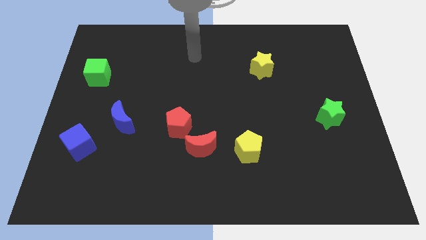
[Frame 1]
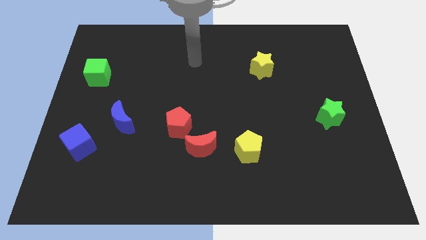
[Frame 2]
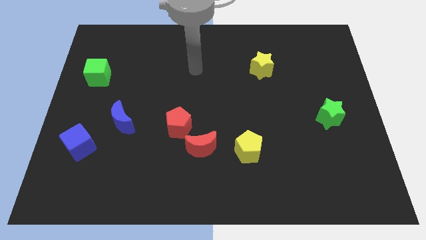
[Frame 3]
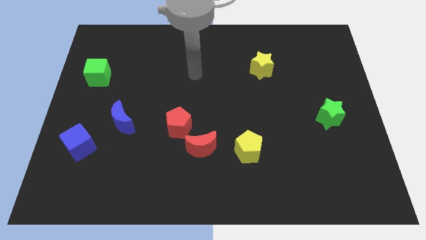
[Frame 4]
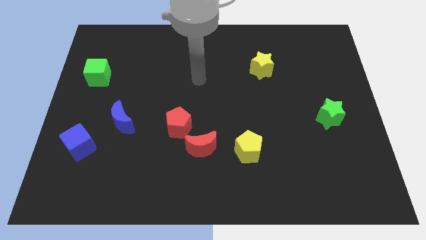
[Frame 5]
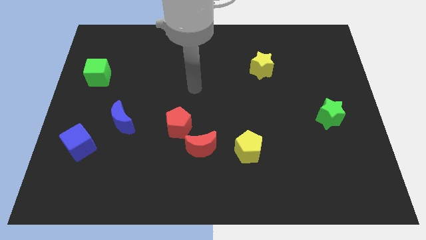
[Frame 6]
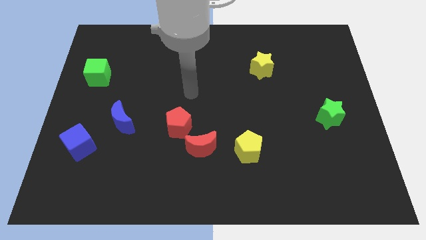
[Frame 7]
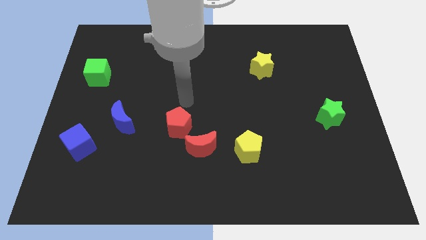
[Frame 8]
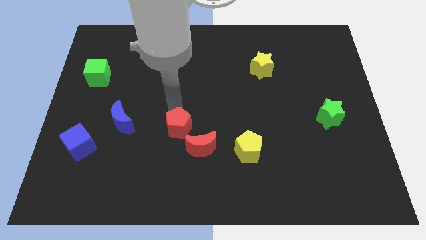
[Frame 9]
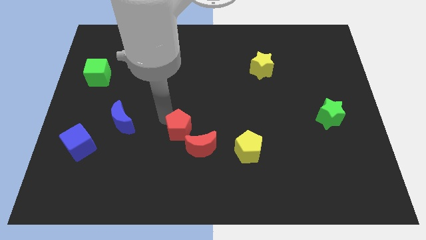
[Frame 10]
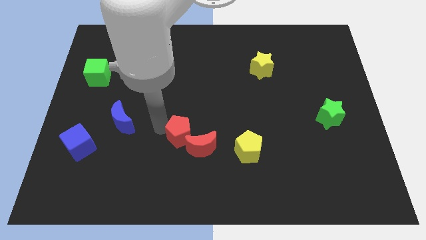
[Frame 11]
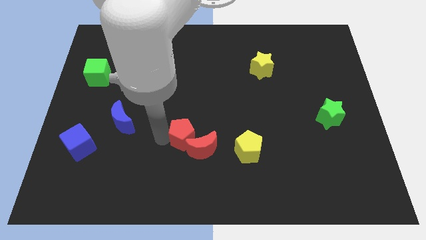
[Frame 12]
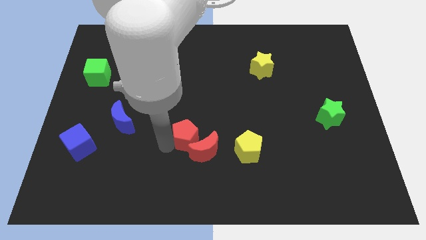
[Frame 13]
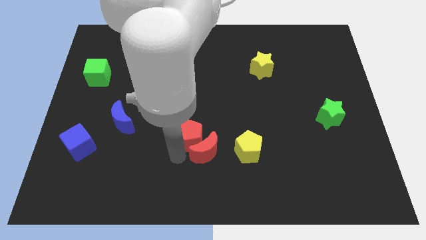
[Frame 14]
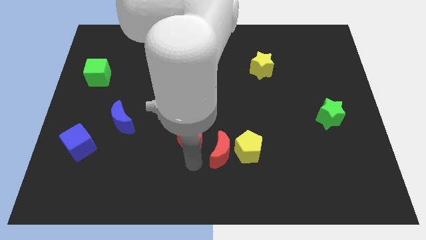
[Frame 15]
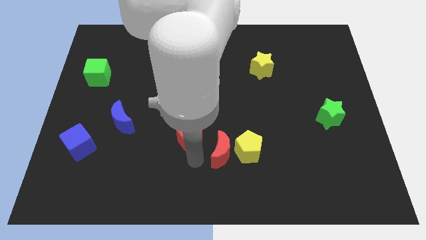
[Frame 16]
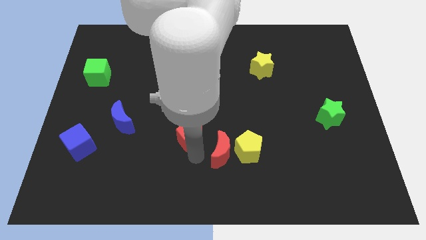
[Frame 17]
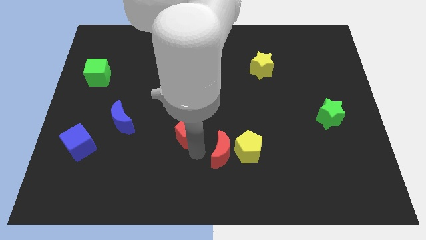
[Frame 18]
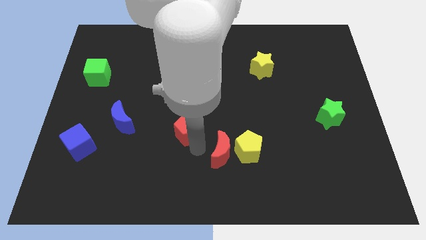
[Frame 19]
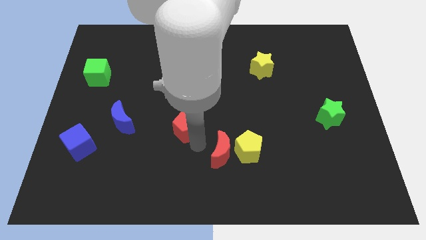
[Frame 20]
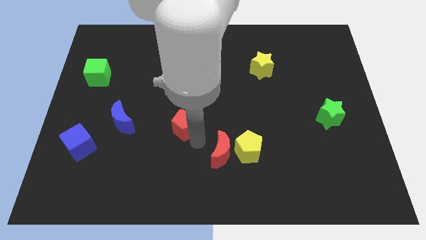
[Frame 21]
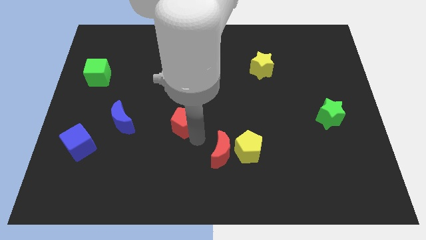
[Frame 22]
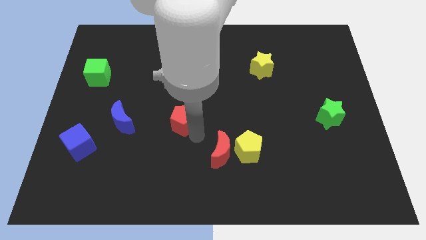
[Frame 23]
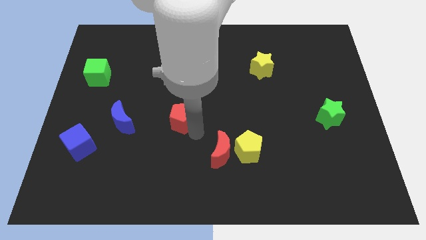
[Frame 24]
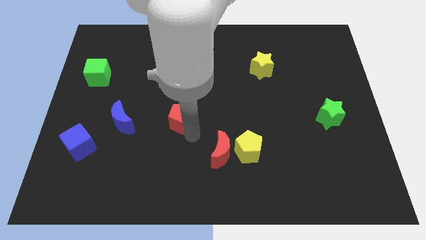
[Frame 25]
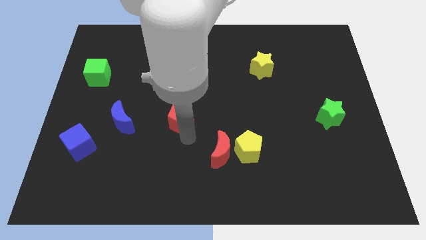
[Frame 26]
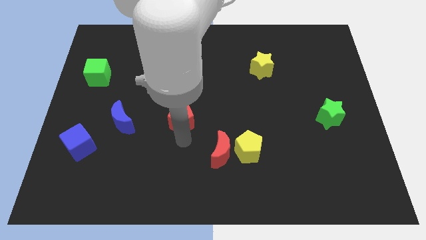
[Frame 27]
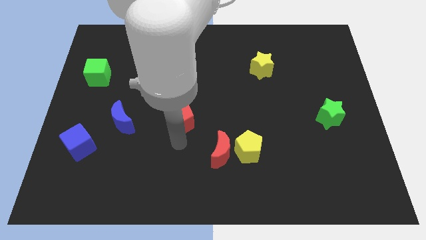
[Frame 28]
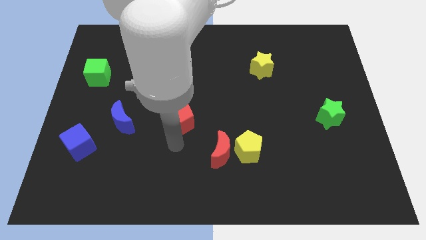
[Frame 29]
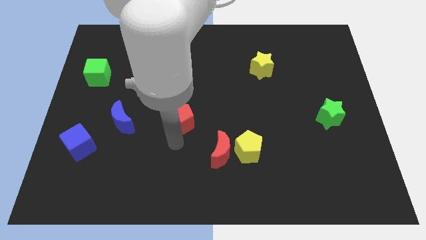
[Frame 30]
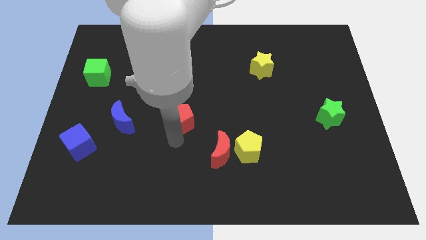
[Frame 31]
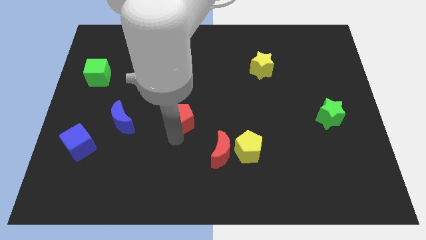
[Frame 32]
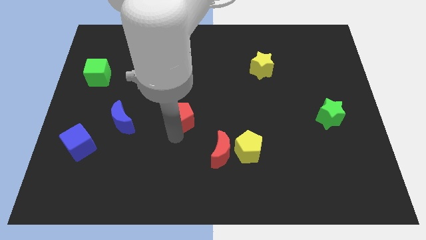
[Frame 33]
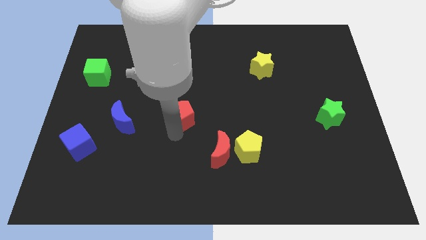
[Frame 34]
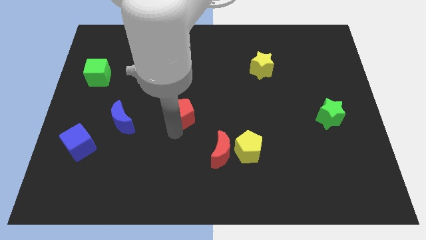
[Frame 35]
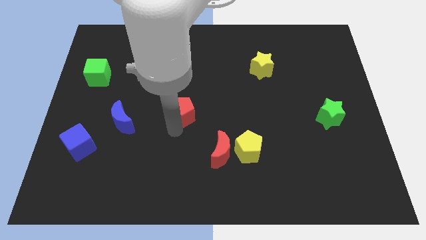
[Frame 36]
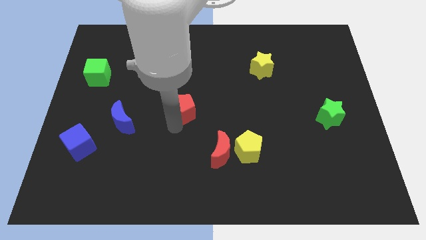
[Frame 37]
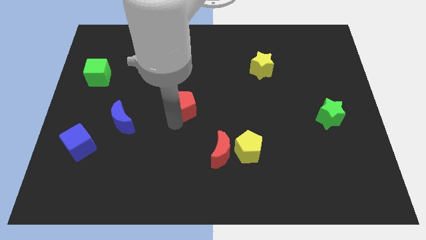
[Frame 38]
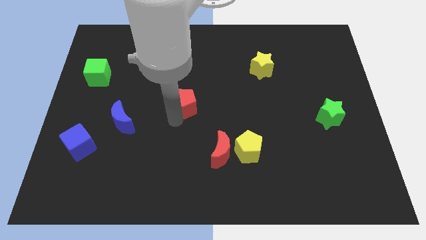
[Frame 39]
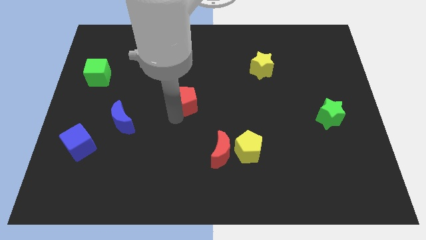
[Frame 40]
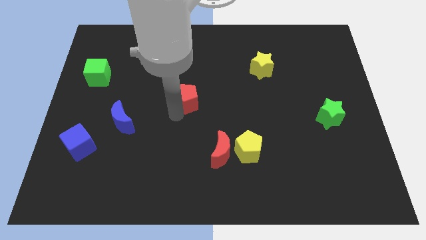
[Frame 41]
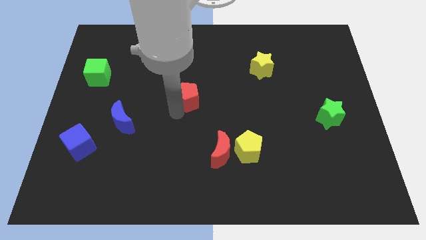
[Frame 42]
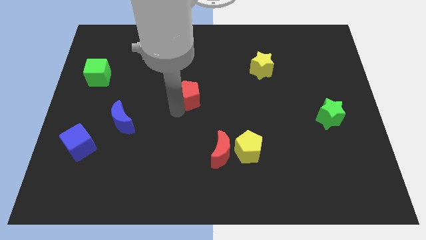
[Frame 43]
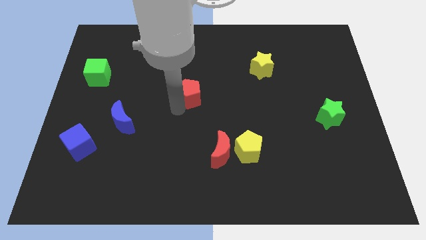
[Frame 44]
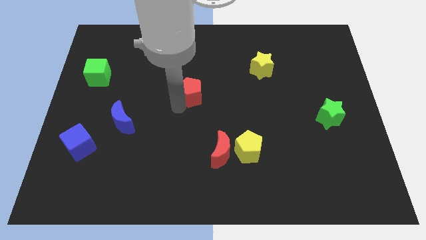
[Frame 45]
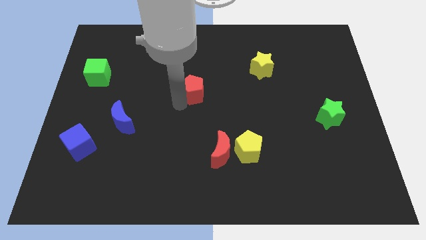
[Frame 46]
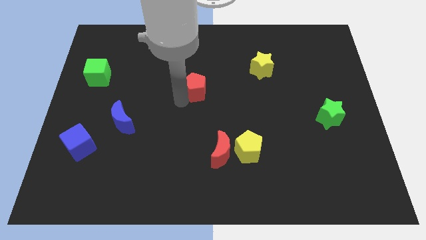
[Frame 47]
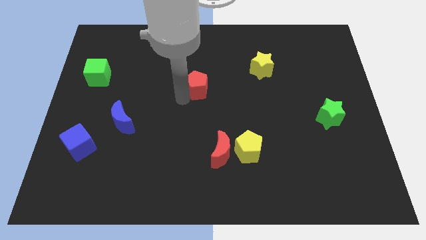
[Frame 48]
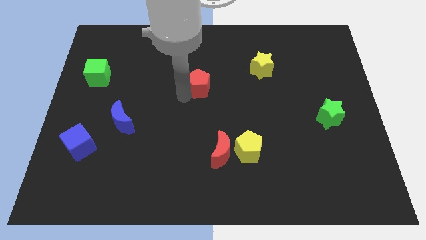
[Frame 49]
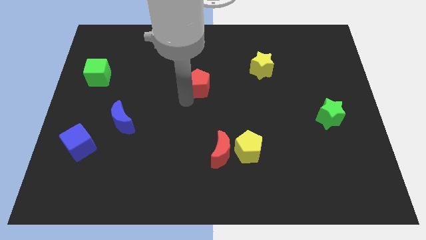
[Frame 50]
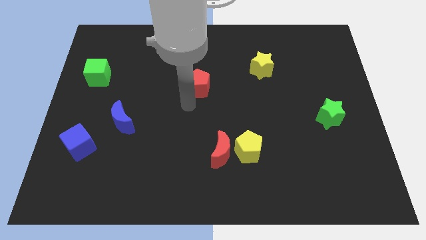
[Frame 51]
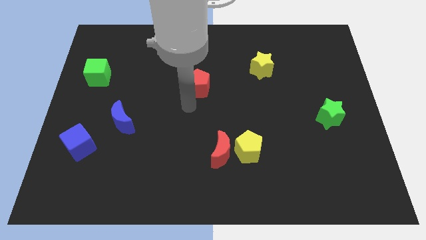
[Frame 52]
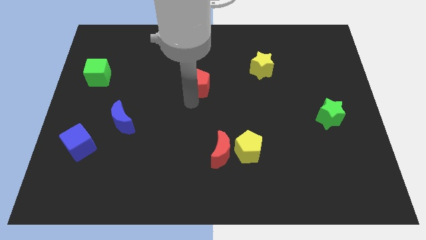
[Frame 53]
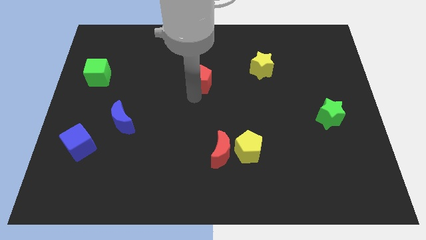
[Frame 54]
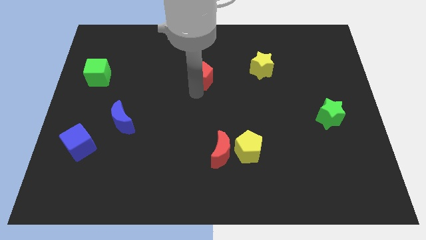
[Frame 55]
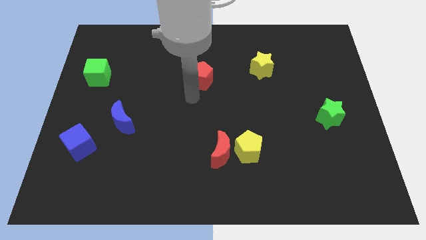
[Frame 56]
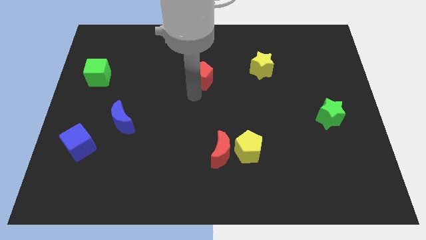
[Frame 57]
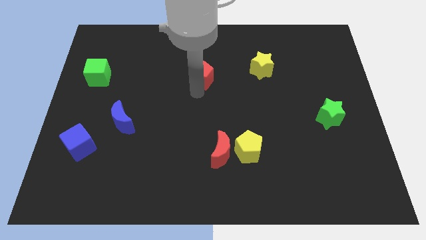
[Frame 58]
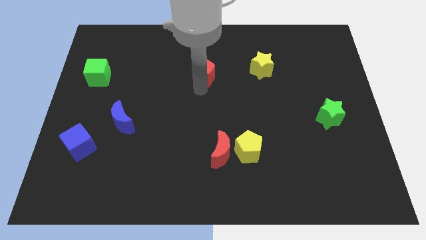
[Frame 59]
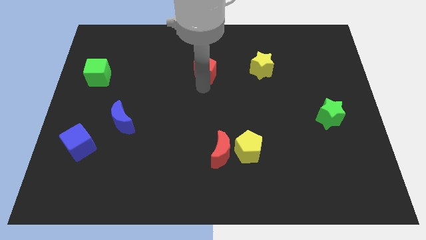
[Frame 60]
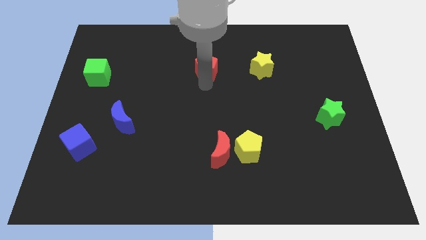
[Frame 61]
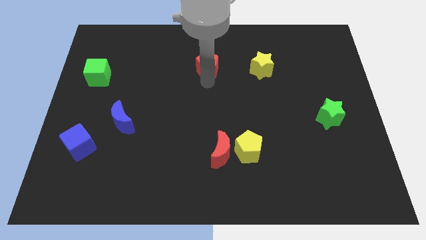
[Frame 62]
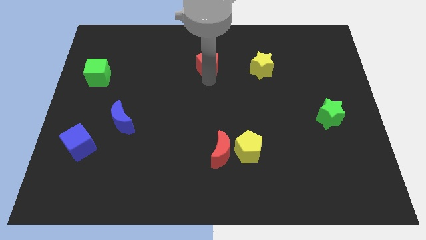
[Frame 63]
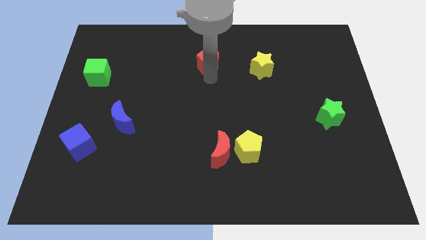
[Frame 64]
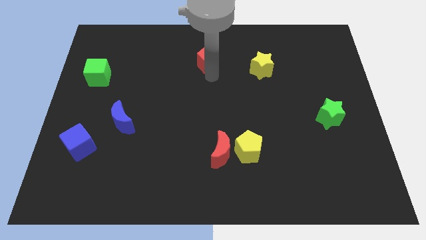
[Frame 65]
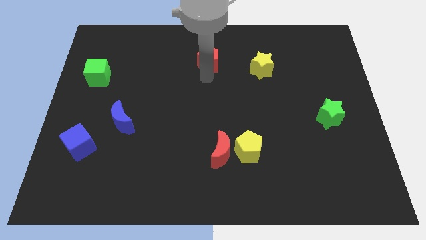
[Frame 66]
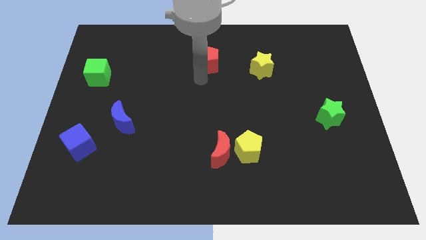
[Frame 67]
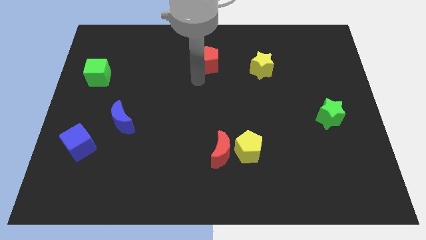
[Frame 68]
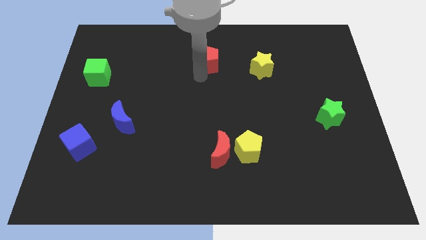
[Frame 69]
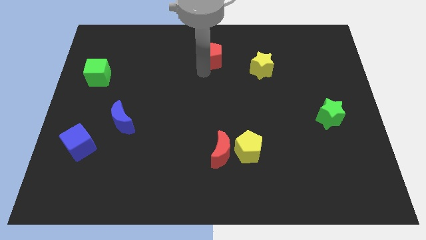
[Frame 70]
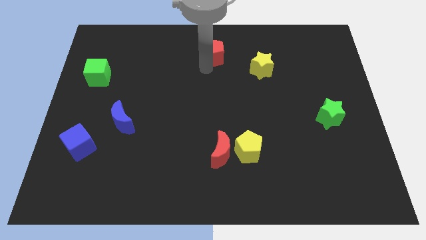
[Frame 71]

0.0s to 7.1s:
push the red pentagon to the towards your base
